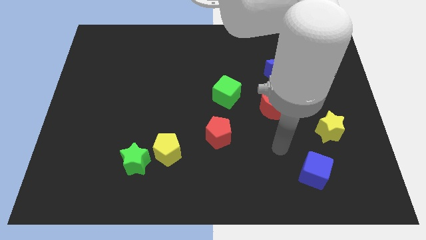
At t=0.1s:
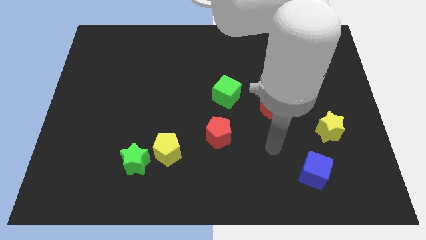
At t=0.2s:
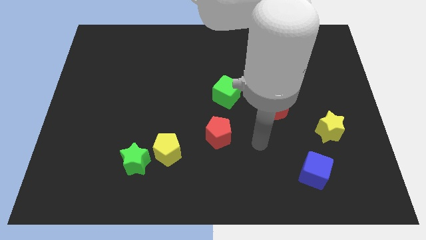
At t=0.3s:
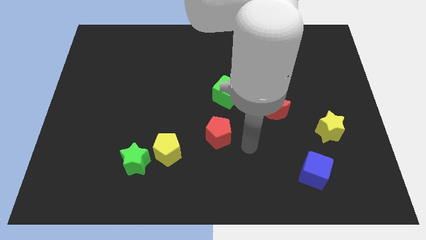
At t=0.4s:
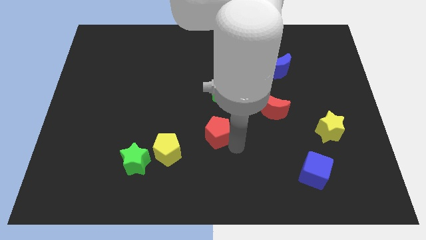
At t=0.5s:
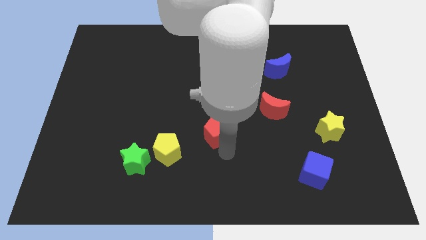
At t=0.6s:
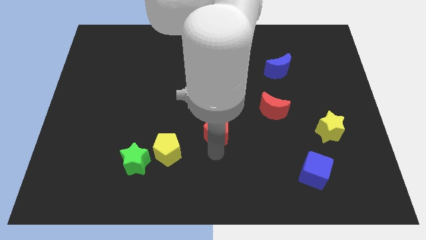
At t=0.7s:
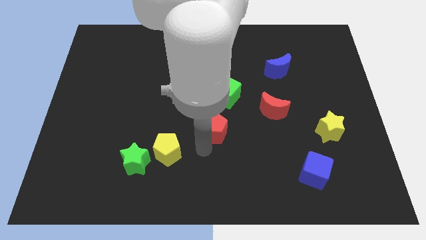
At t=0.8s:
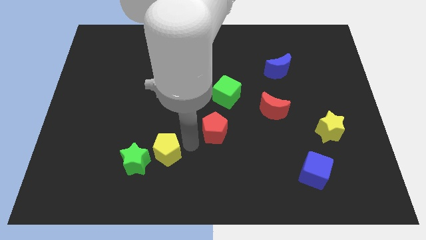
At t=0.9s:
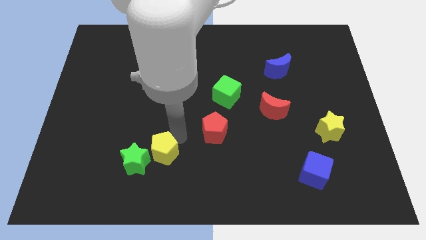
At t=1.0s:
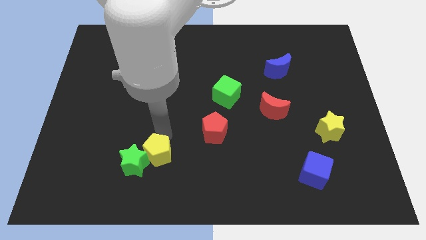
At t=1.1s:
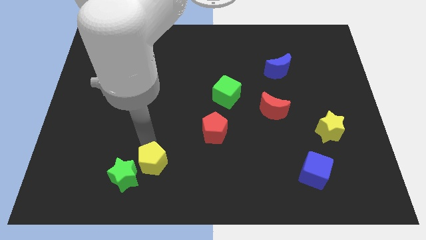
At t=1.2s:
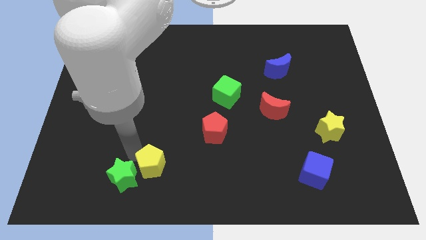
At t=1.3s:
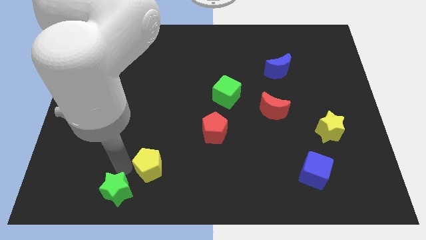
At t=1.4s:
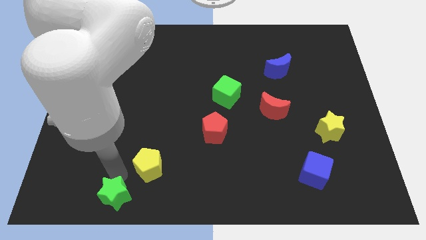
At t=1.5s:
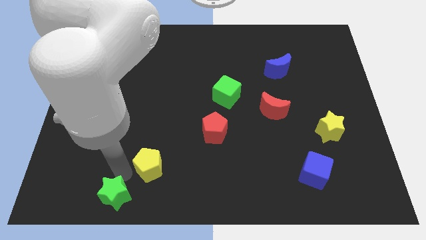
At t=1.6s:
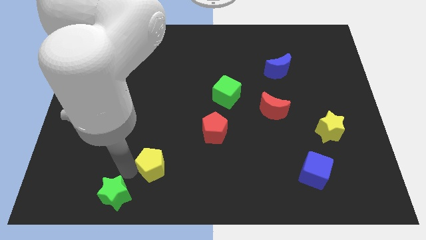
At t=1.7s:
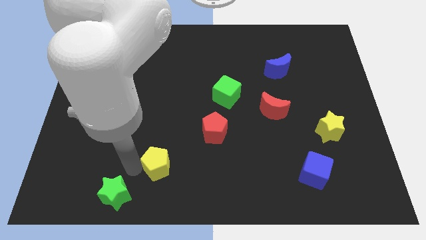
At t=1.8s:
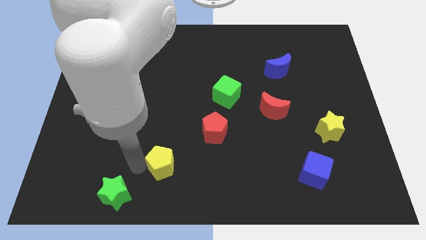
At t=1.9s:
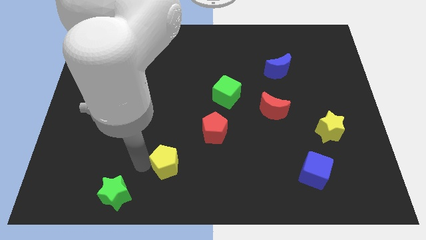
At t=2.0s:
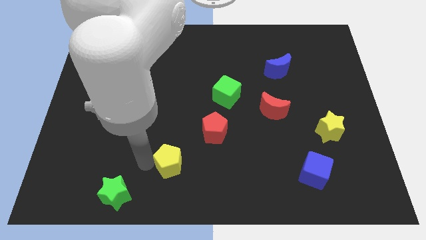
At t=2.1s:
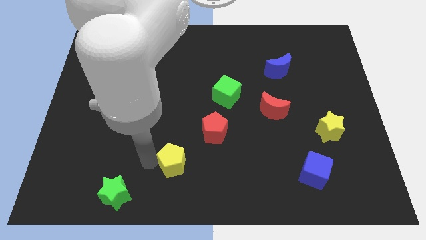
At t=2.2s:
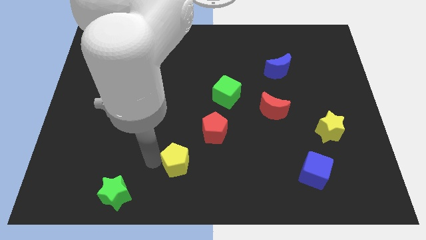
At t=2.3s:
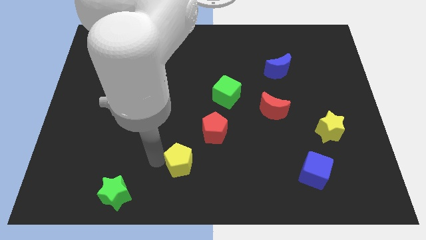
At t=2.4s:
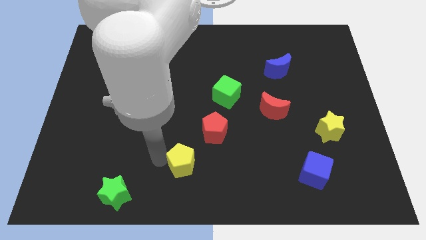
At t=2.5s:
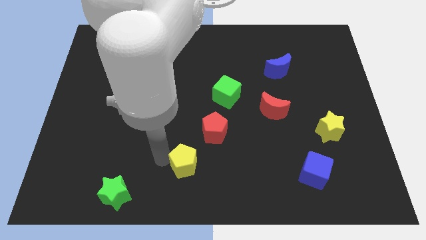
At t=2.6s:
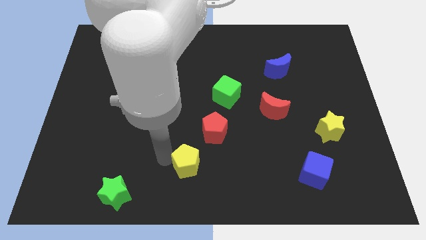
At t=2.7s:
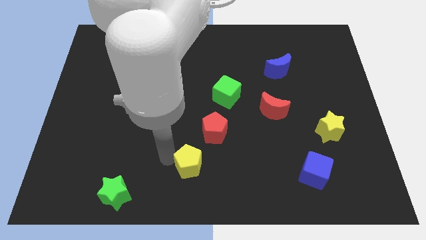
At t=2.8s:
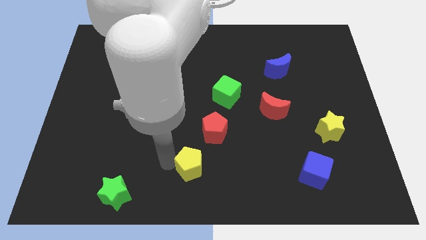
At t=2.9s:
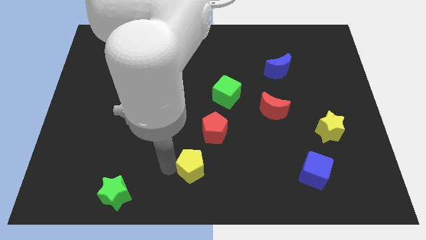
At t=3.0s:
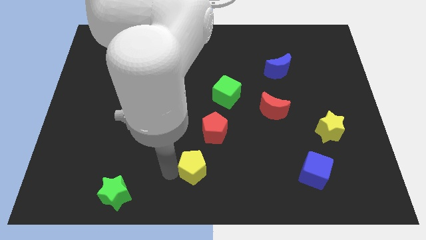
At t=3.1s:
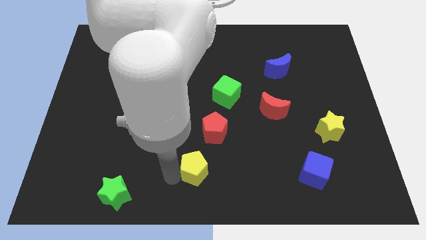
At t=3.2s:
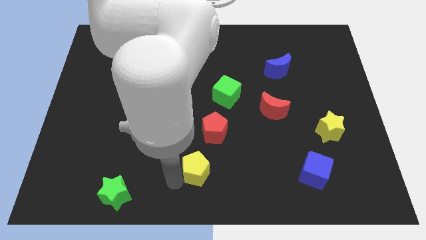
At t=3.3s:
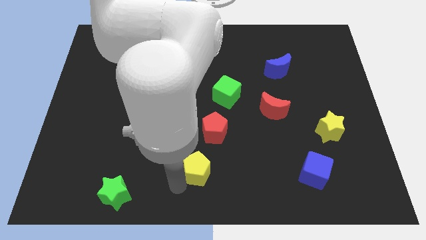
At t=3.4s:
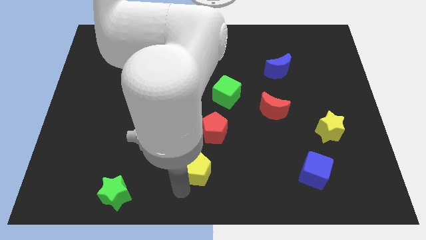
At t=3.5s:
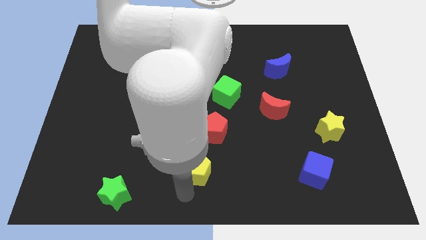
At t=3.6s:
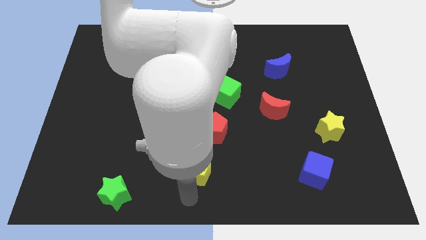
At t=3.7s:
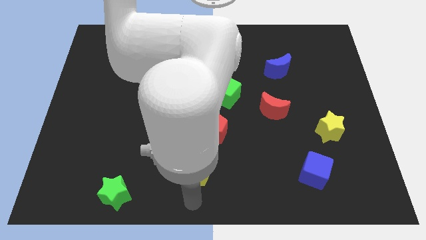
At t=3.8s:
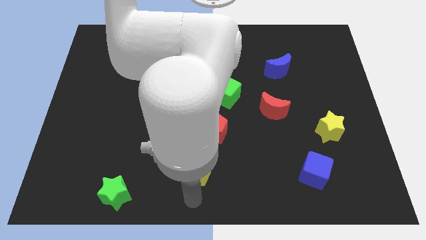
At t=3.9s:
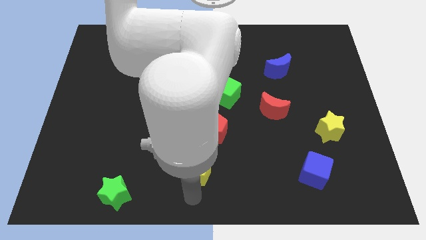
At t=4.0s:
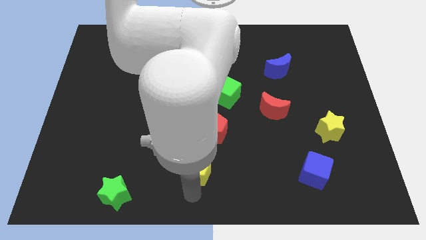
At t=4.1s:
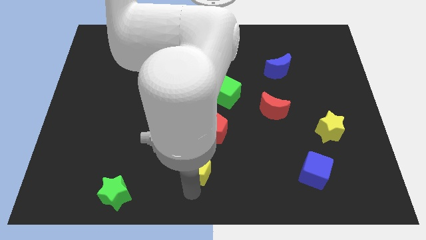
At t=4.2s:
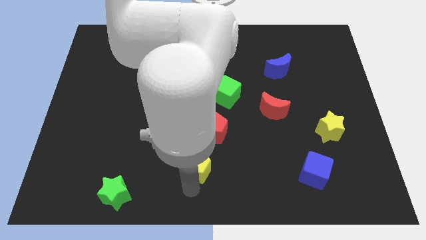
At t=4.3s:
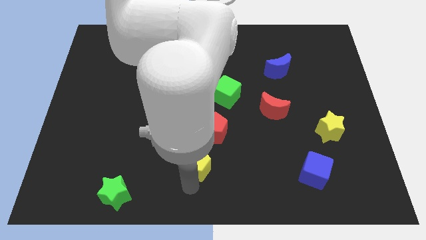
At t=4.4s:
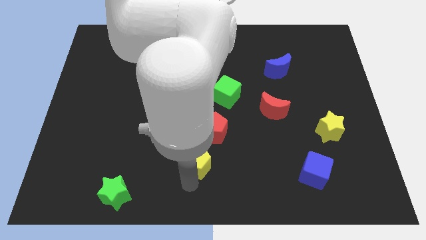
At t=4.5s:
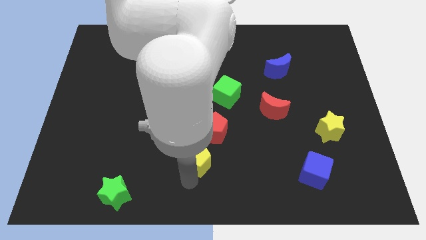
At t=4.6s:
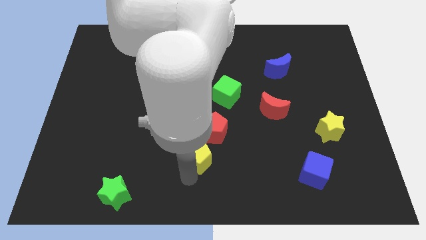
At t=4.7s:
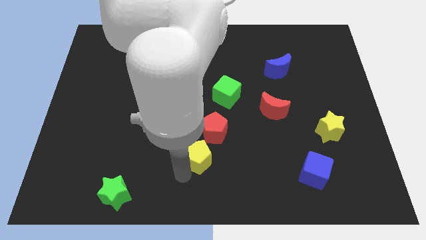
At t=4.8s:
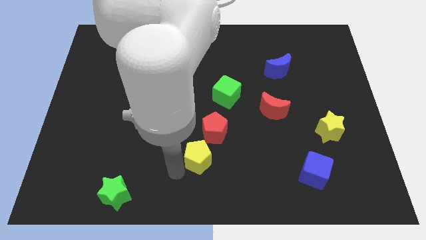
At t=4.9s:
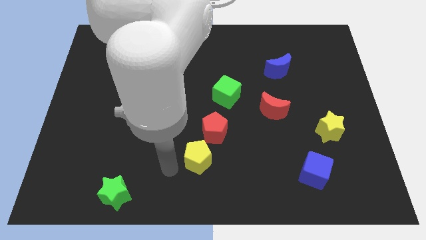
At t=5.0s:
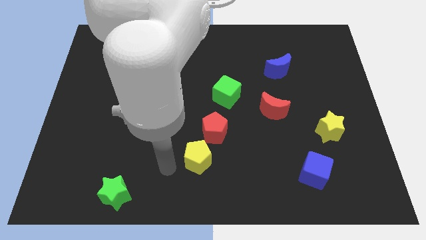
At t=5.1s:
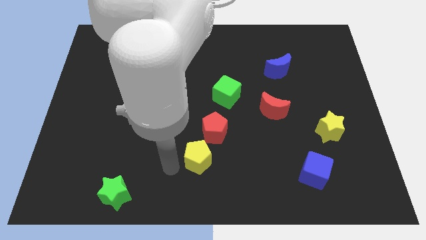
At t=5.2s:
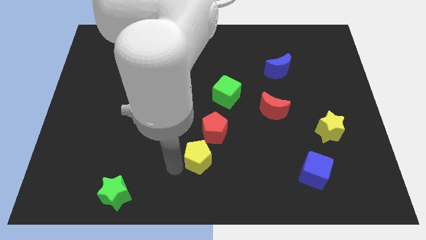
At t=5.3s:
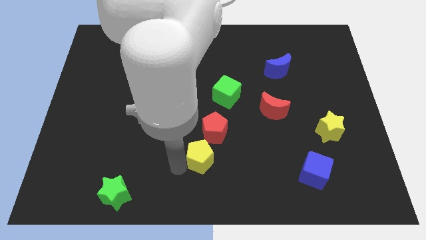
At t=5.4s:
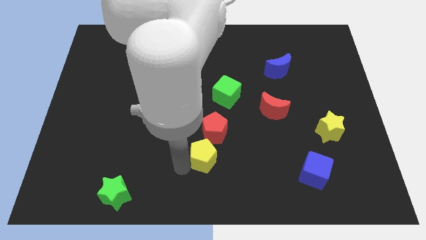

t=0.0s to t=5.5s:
push the yellow pentagon a little right

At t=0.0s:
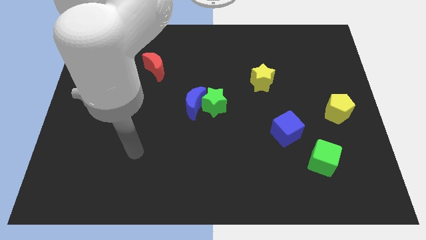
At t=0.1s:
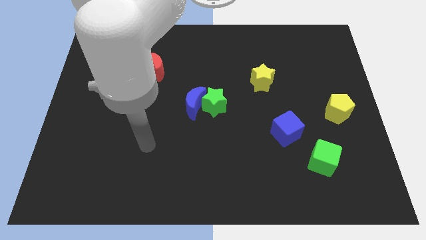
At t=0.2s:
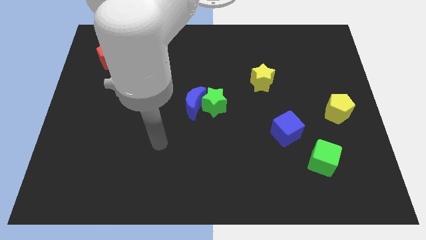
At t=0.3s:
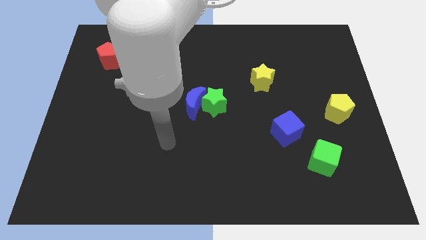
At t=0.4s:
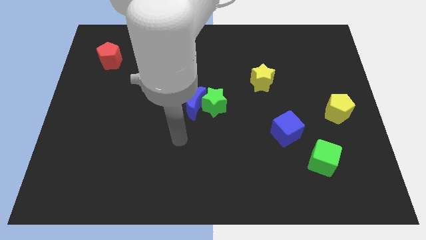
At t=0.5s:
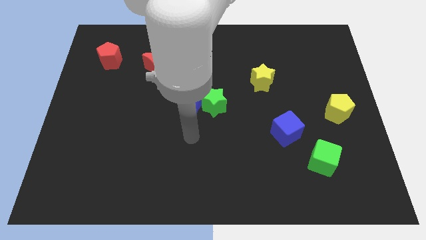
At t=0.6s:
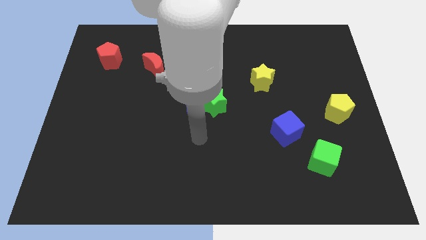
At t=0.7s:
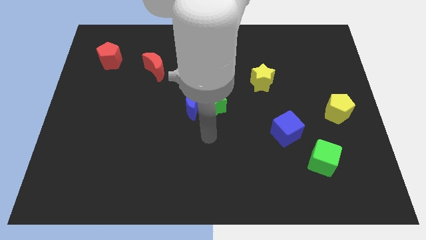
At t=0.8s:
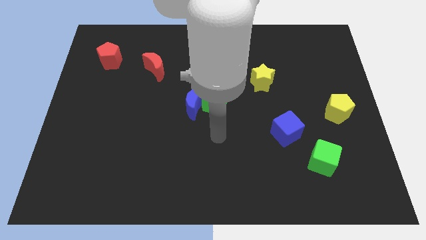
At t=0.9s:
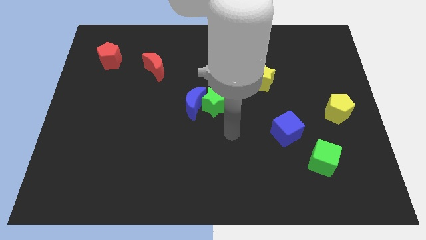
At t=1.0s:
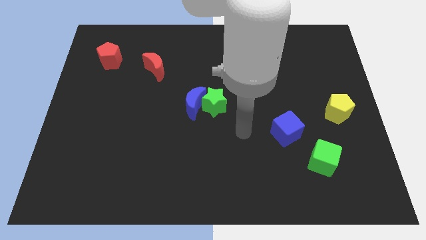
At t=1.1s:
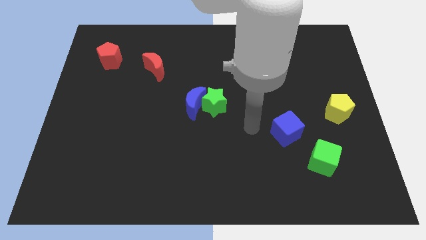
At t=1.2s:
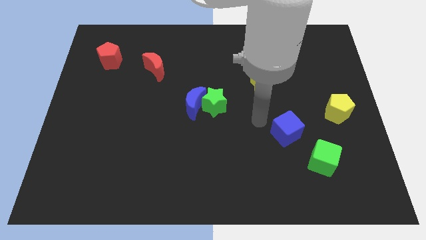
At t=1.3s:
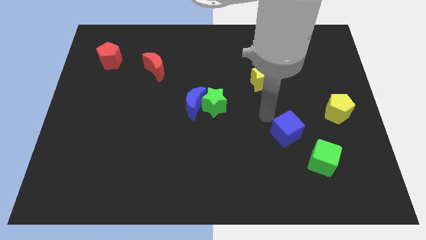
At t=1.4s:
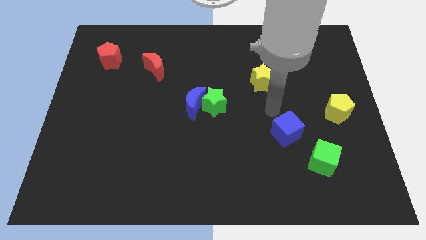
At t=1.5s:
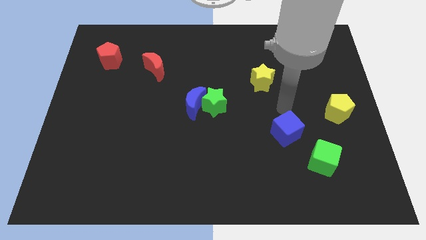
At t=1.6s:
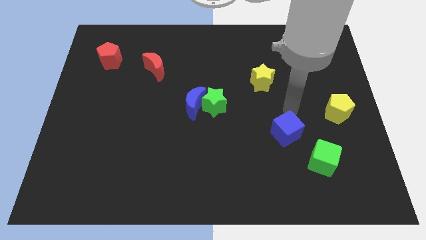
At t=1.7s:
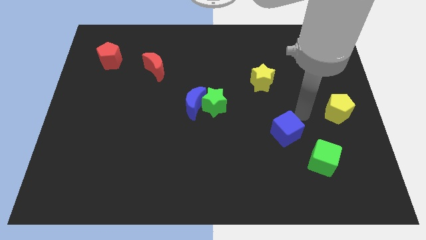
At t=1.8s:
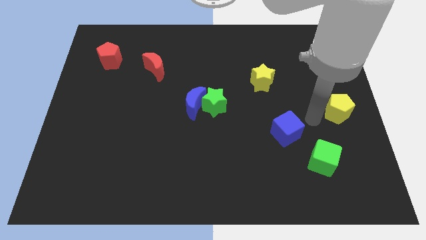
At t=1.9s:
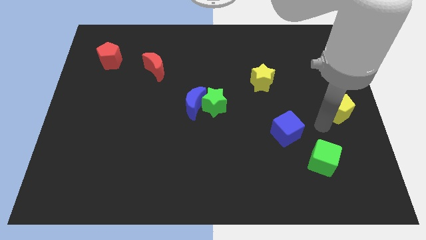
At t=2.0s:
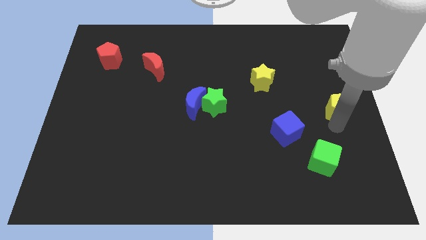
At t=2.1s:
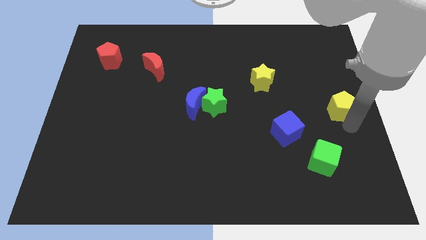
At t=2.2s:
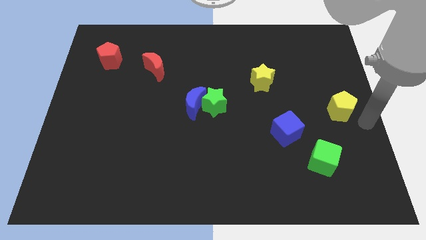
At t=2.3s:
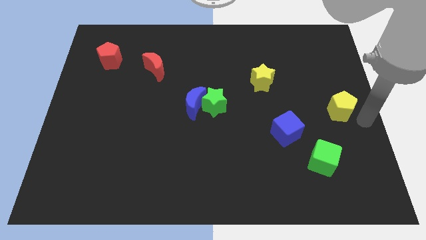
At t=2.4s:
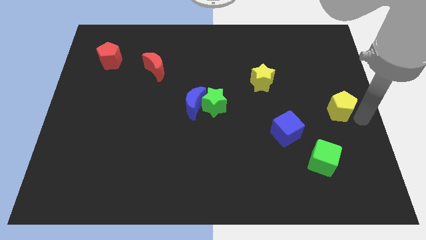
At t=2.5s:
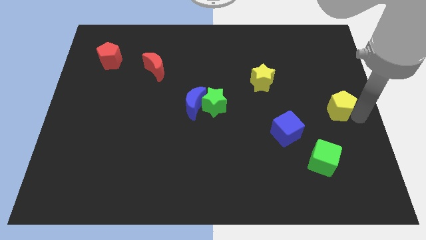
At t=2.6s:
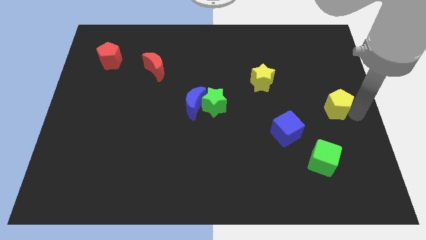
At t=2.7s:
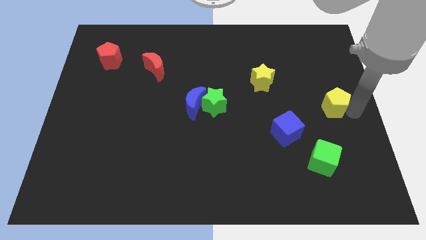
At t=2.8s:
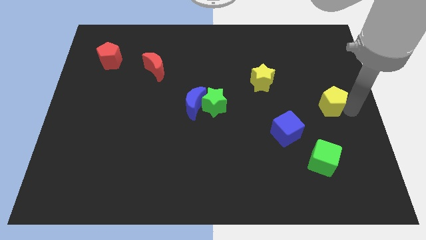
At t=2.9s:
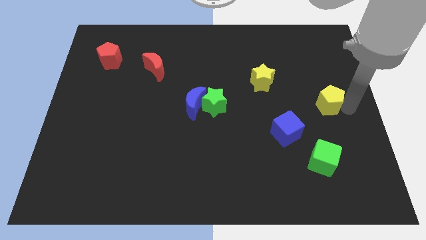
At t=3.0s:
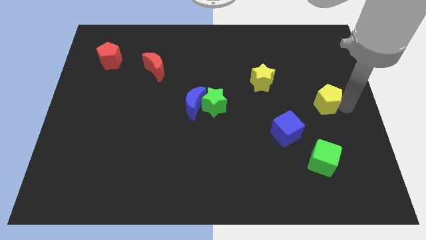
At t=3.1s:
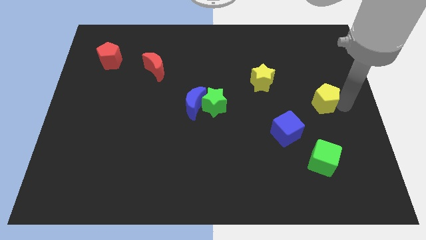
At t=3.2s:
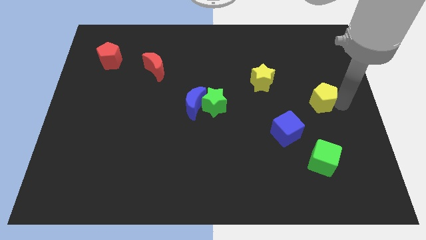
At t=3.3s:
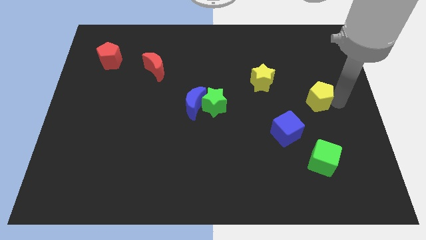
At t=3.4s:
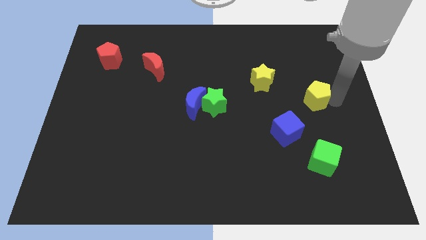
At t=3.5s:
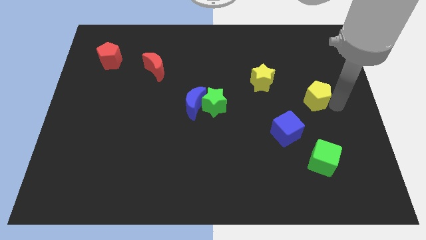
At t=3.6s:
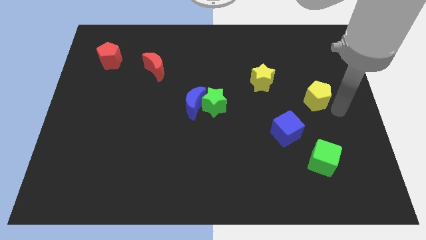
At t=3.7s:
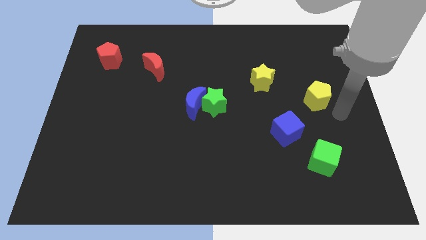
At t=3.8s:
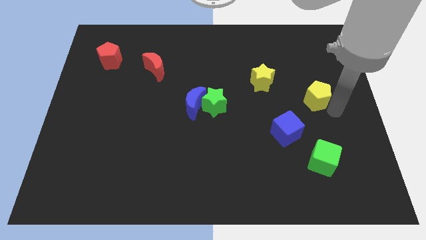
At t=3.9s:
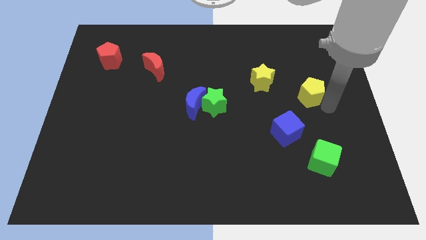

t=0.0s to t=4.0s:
move the yellow pentagon a little bit upwards and to the left
